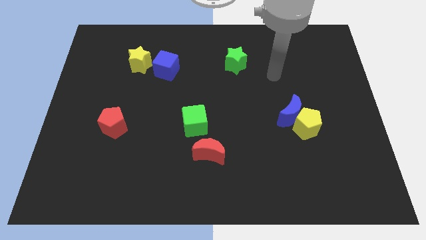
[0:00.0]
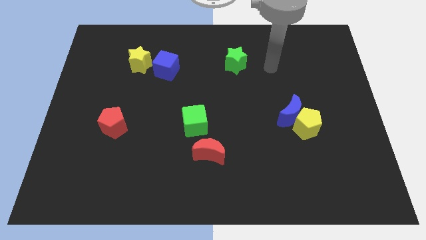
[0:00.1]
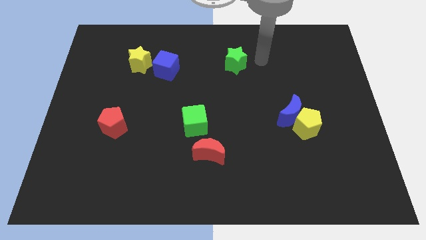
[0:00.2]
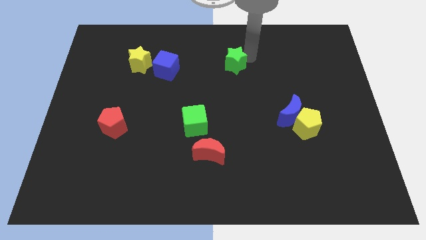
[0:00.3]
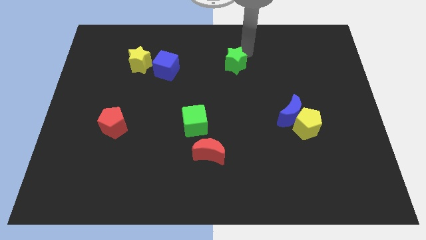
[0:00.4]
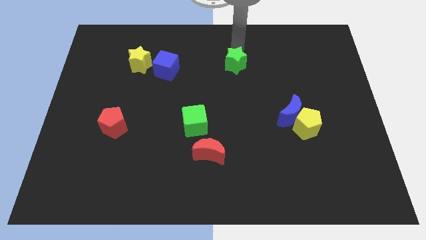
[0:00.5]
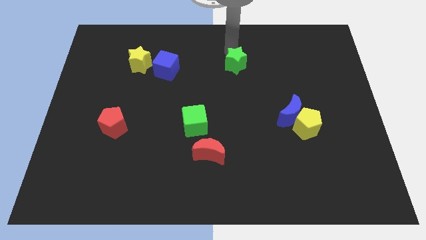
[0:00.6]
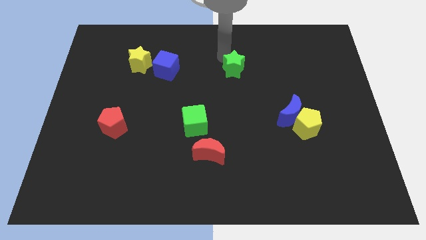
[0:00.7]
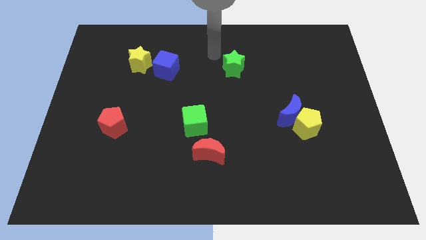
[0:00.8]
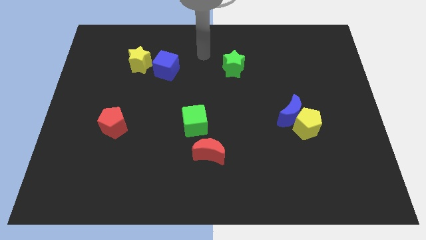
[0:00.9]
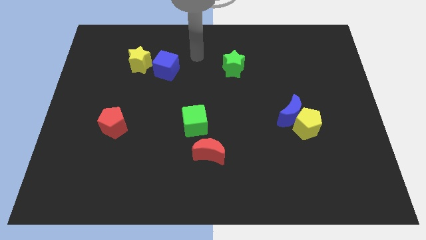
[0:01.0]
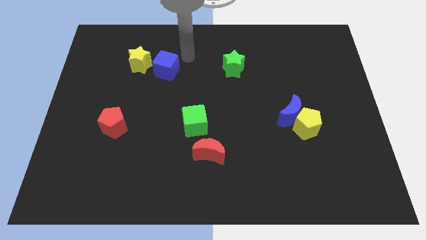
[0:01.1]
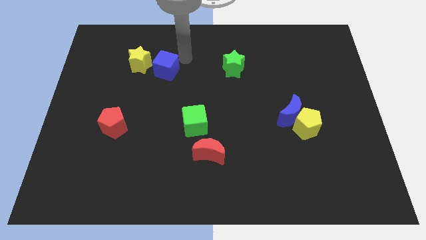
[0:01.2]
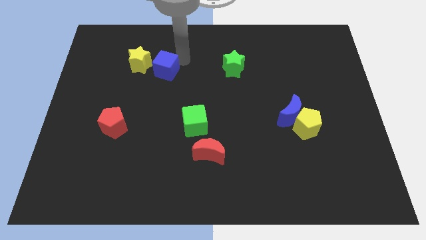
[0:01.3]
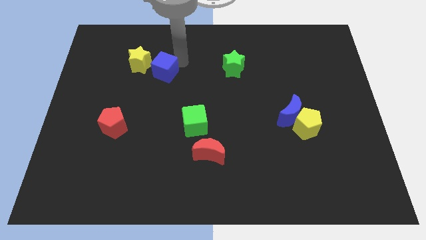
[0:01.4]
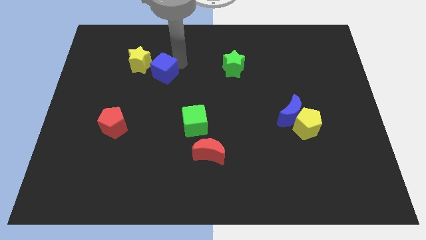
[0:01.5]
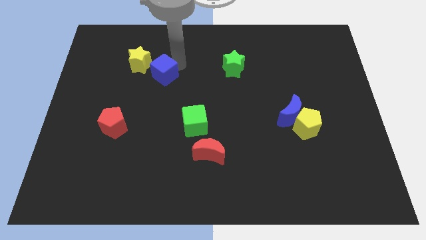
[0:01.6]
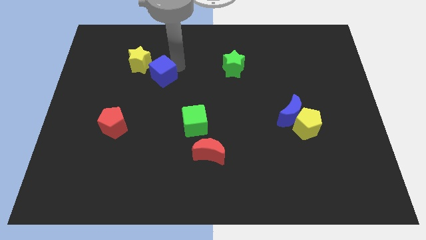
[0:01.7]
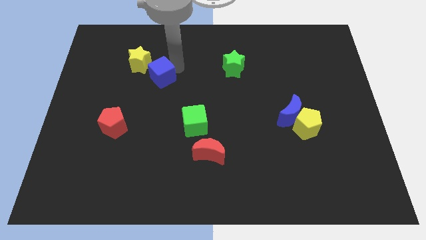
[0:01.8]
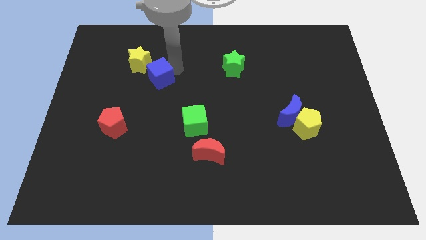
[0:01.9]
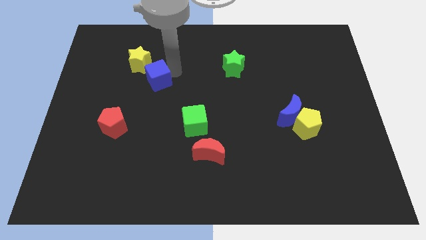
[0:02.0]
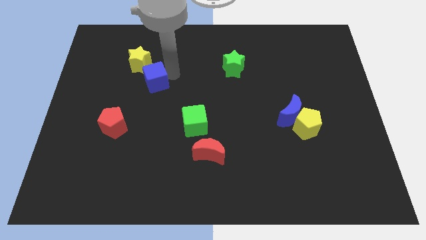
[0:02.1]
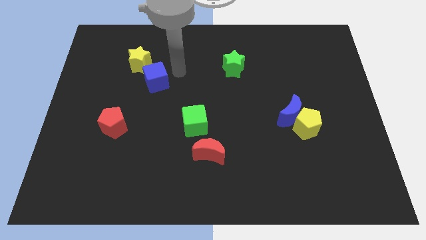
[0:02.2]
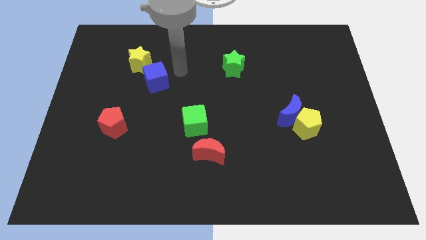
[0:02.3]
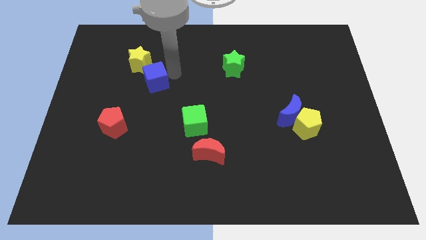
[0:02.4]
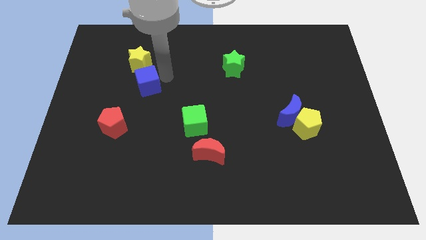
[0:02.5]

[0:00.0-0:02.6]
move the blue cube a little down and left diagonally

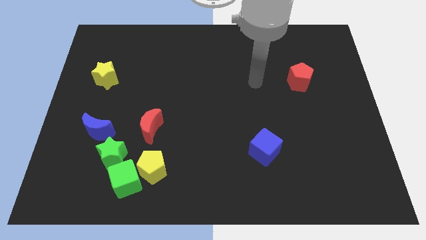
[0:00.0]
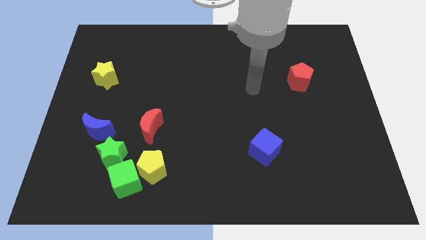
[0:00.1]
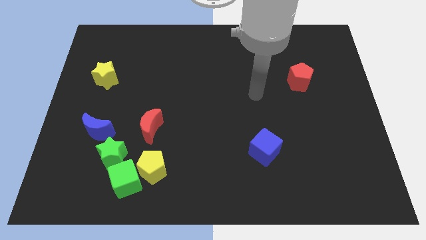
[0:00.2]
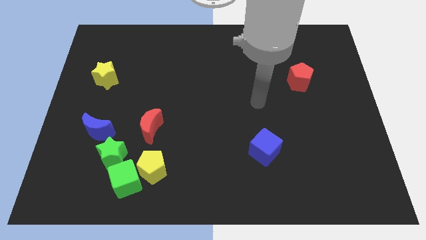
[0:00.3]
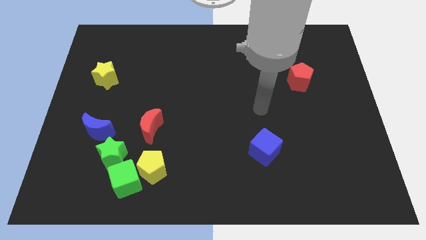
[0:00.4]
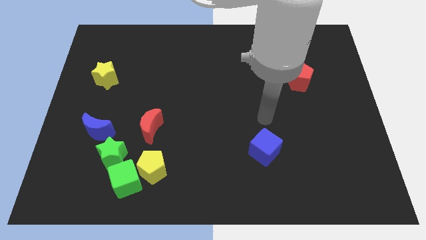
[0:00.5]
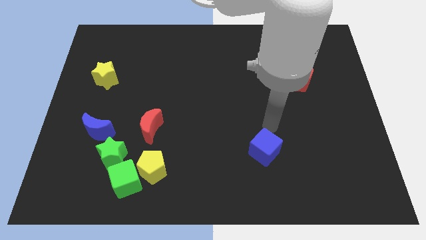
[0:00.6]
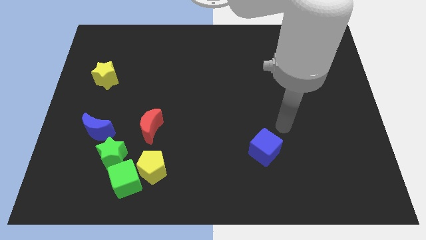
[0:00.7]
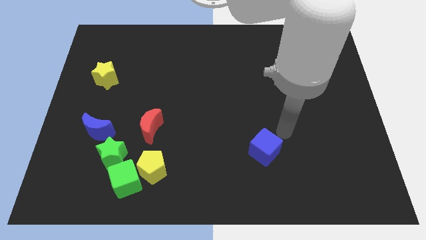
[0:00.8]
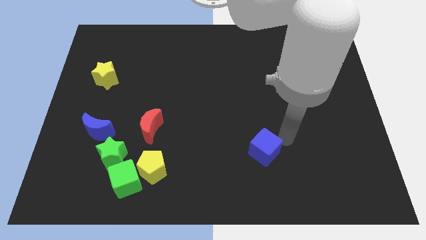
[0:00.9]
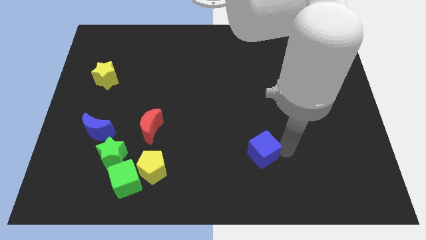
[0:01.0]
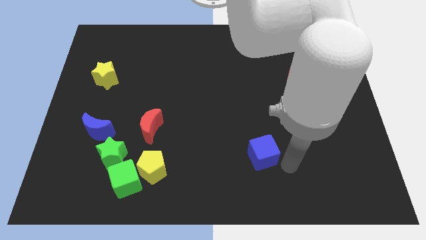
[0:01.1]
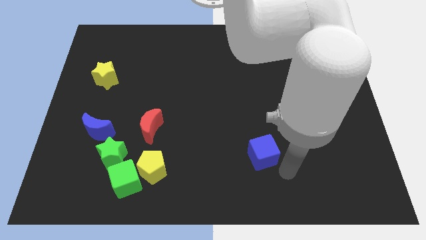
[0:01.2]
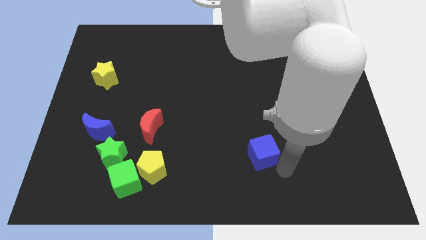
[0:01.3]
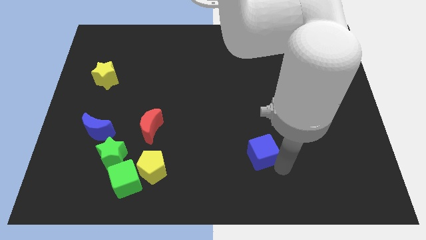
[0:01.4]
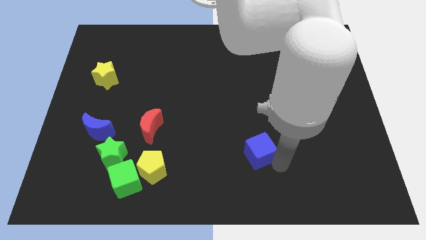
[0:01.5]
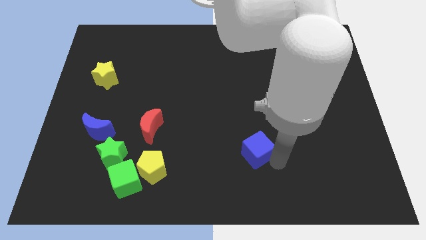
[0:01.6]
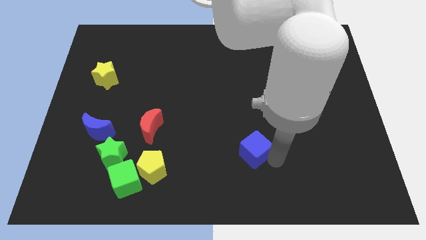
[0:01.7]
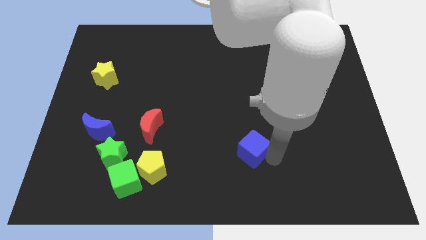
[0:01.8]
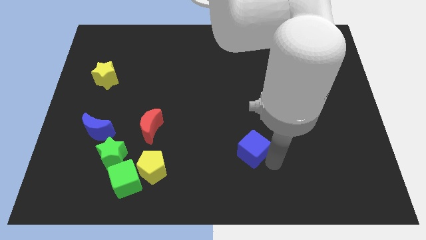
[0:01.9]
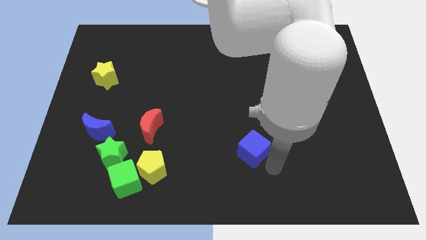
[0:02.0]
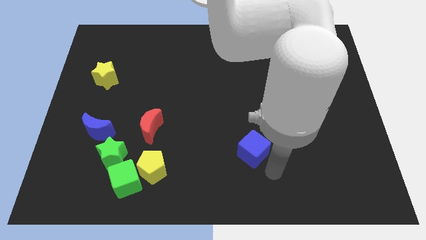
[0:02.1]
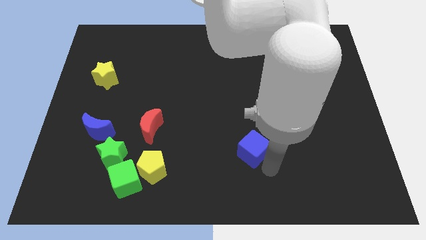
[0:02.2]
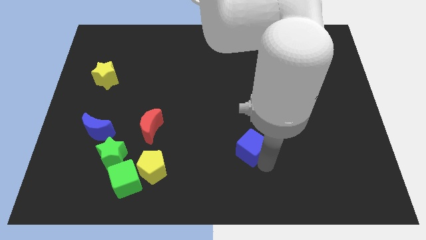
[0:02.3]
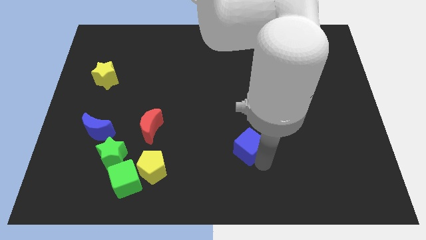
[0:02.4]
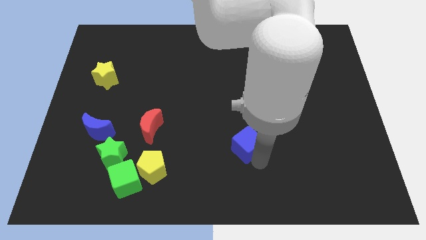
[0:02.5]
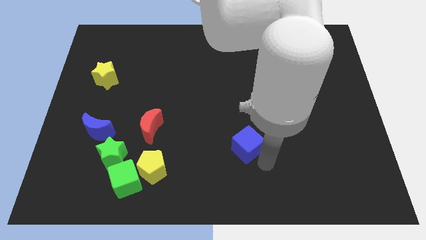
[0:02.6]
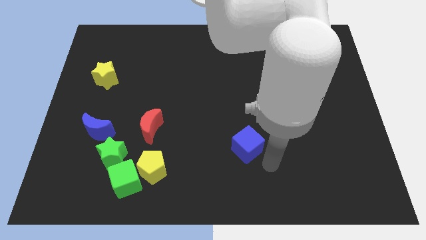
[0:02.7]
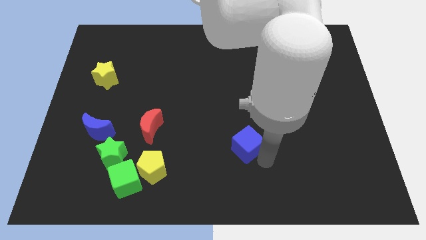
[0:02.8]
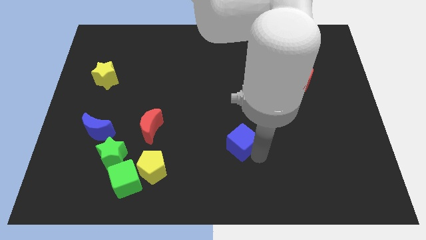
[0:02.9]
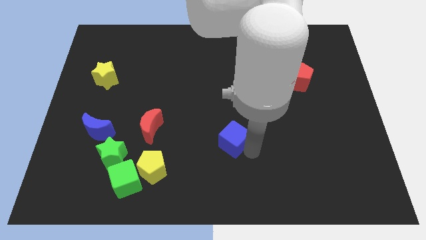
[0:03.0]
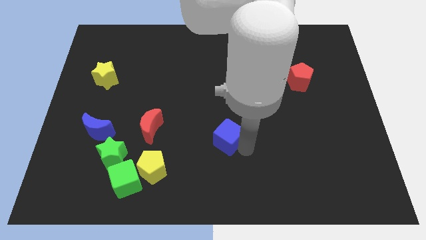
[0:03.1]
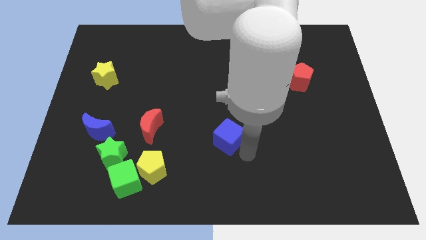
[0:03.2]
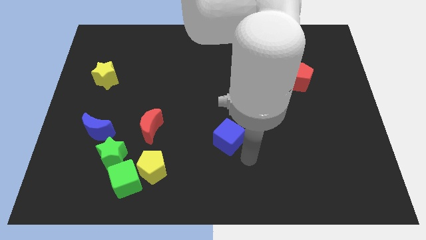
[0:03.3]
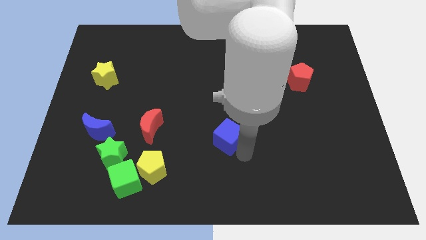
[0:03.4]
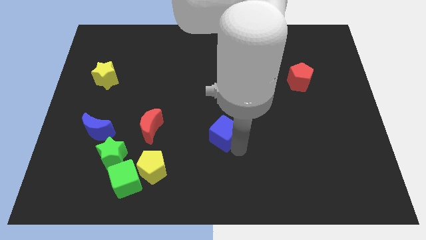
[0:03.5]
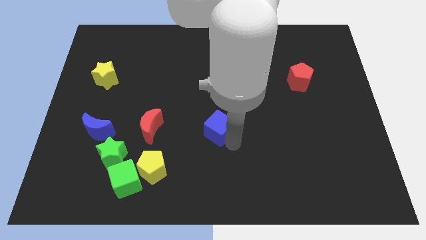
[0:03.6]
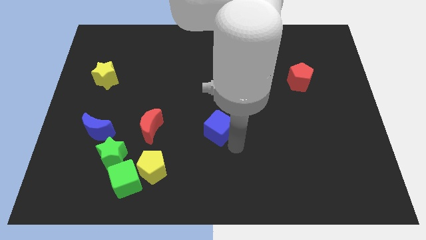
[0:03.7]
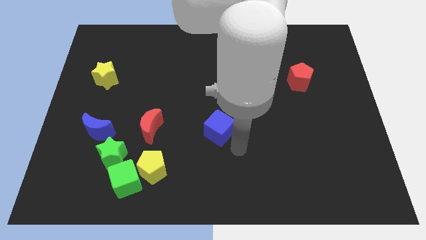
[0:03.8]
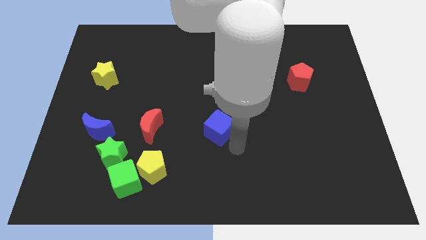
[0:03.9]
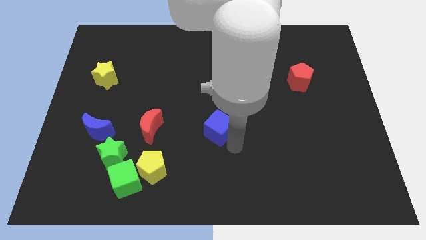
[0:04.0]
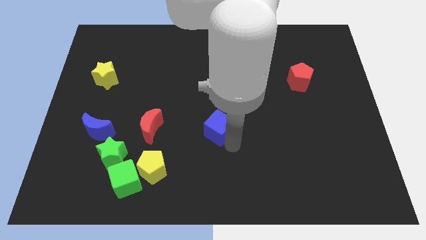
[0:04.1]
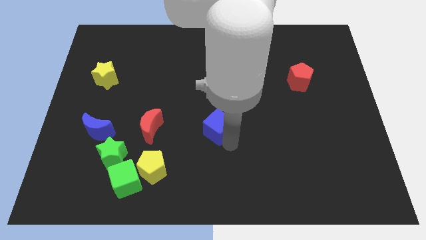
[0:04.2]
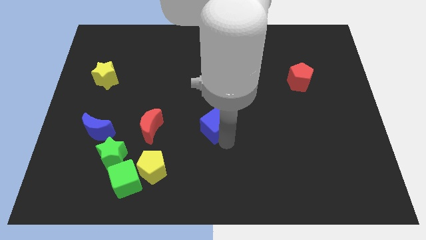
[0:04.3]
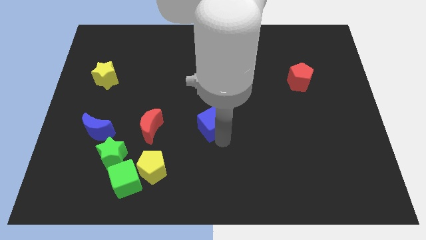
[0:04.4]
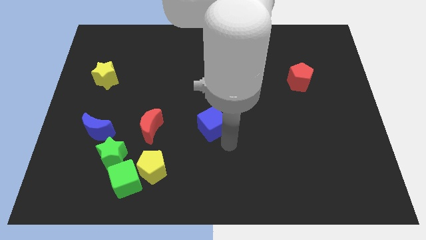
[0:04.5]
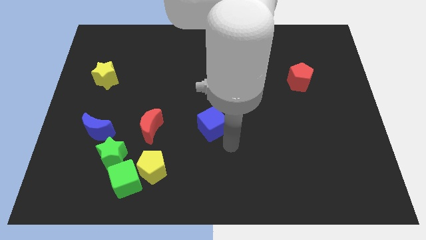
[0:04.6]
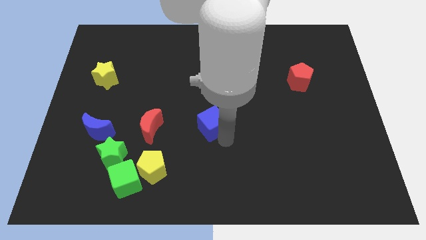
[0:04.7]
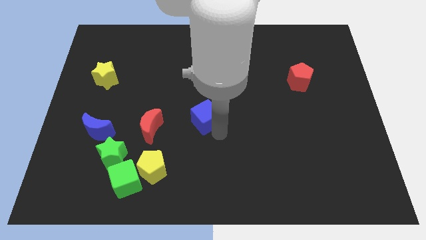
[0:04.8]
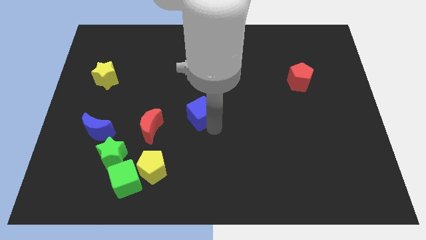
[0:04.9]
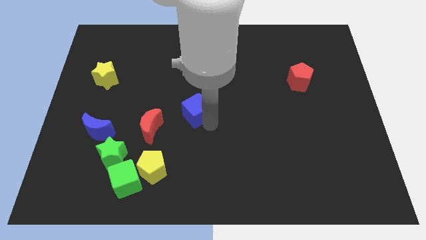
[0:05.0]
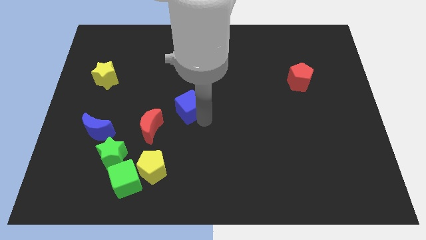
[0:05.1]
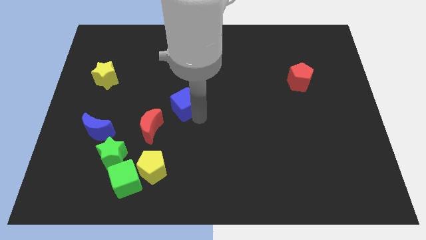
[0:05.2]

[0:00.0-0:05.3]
slide the blue cube upwards and to the left

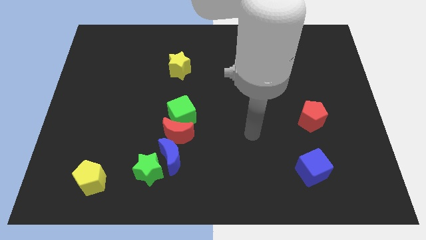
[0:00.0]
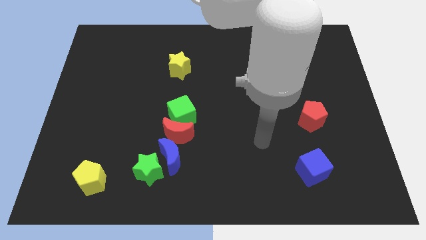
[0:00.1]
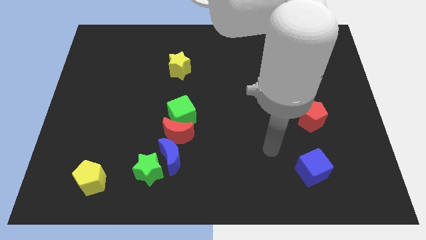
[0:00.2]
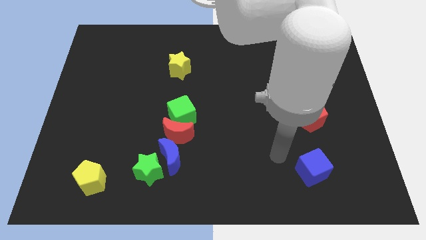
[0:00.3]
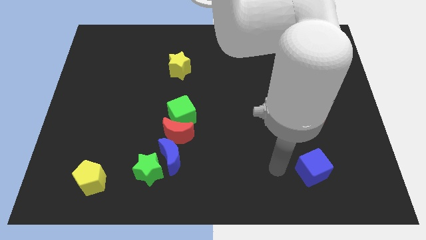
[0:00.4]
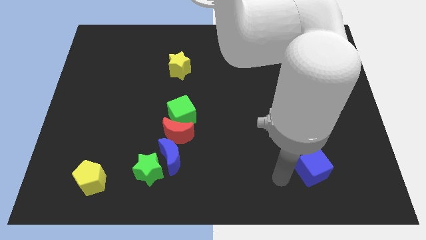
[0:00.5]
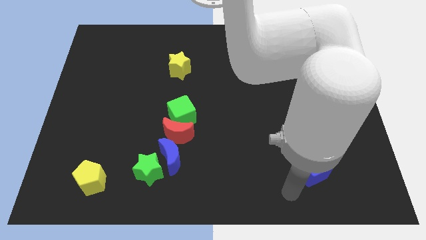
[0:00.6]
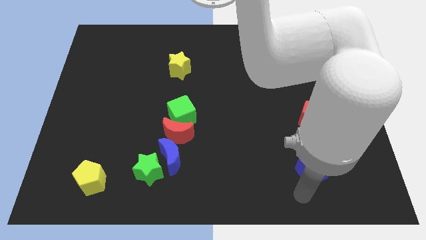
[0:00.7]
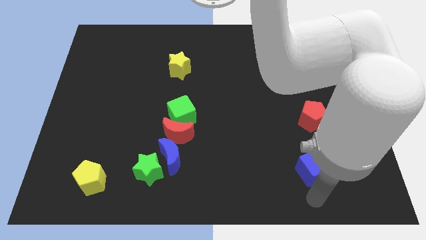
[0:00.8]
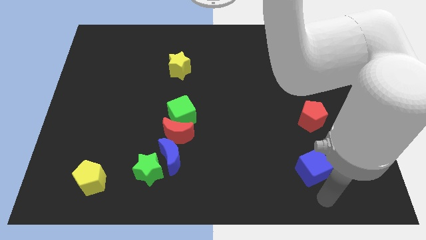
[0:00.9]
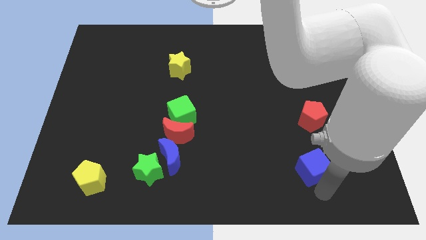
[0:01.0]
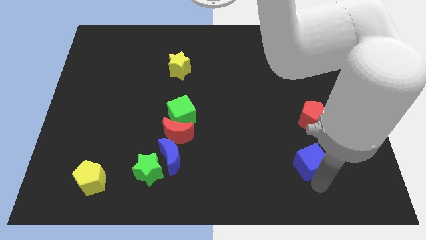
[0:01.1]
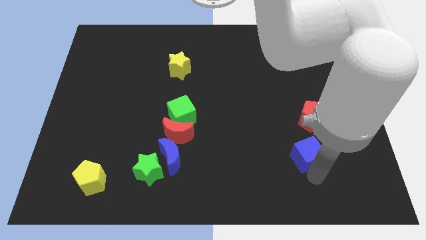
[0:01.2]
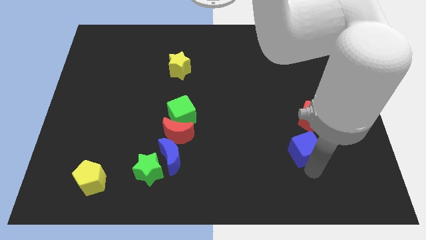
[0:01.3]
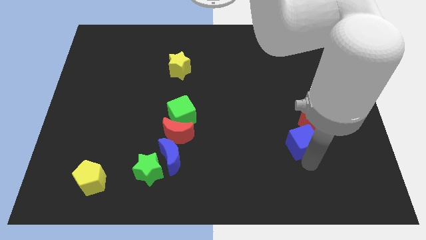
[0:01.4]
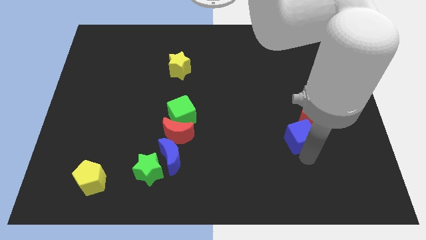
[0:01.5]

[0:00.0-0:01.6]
slightly move the blue cube upwards
